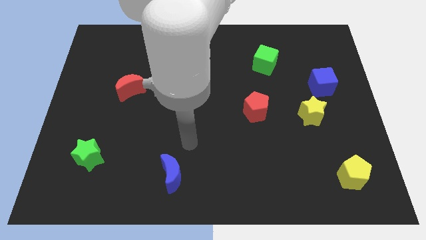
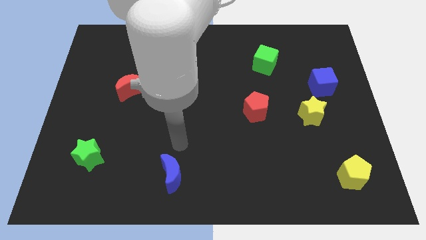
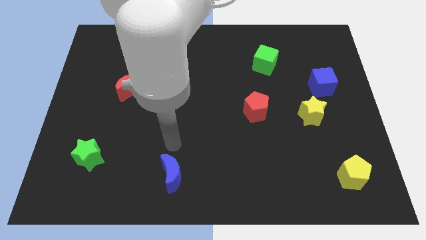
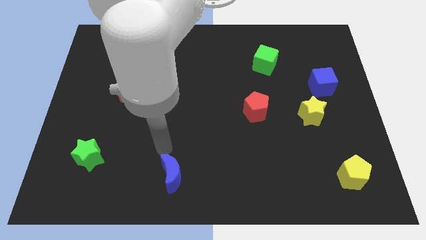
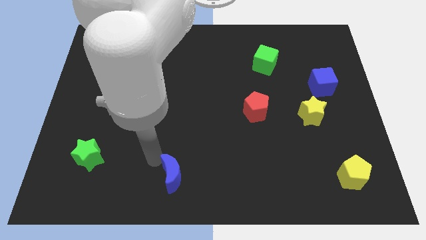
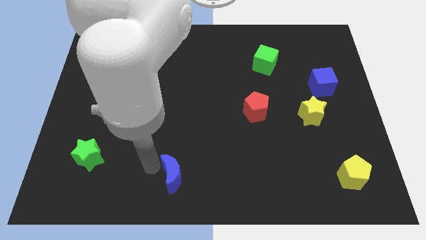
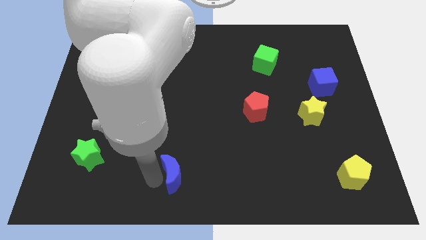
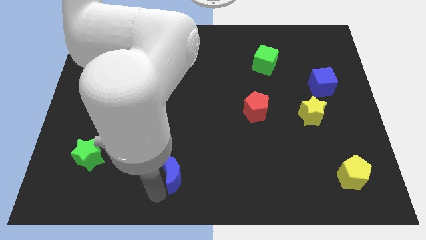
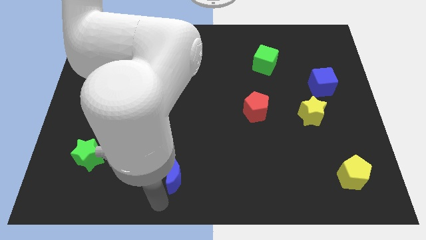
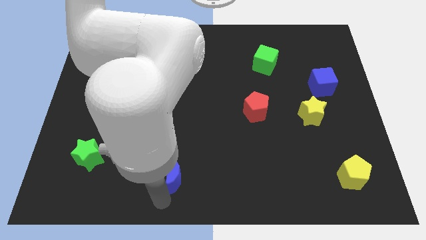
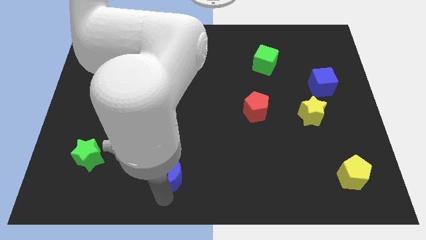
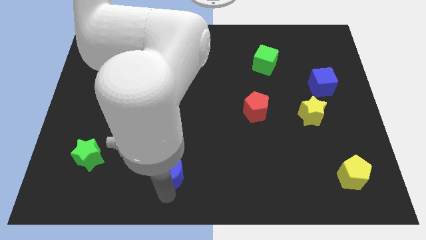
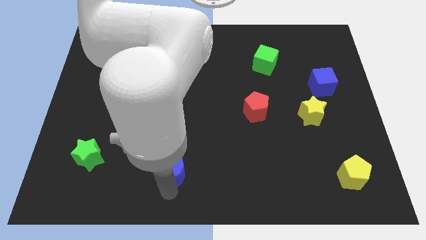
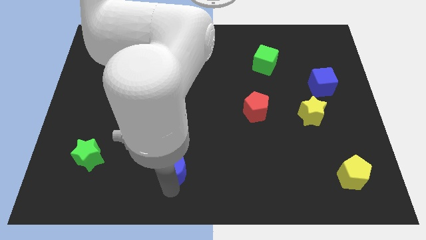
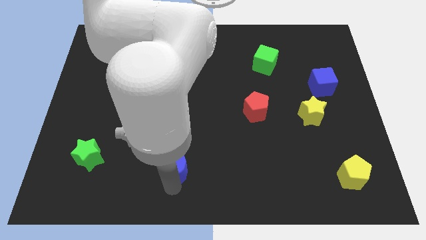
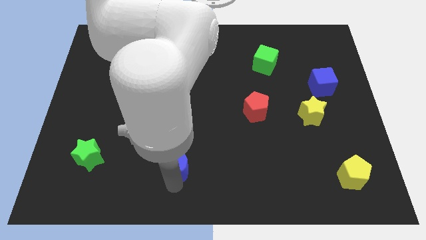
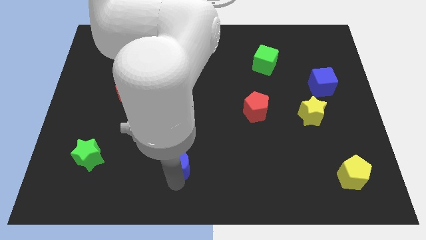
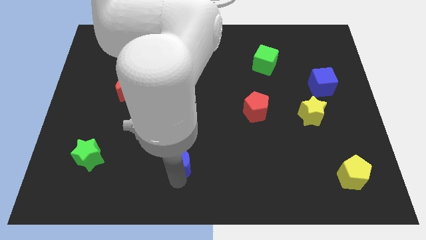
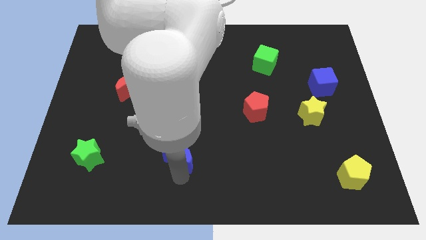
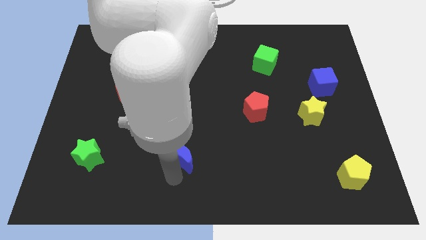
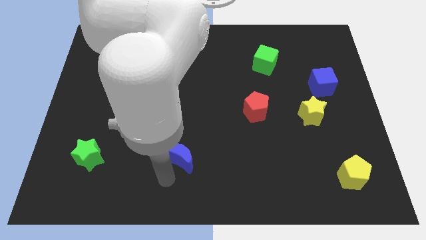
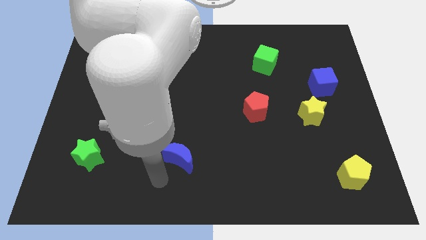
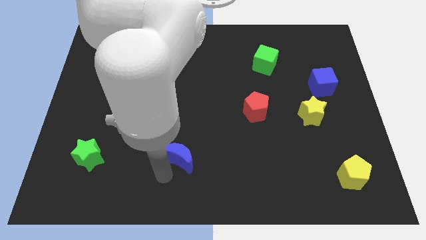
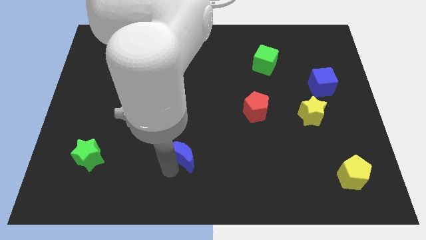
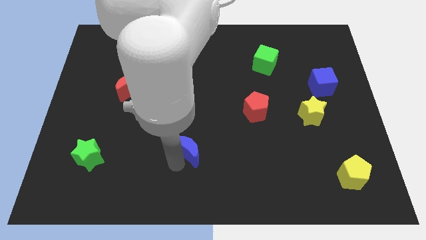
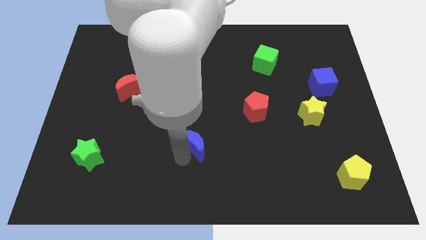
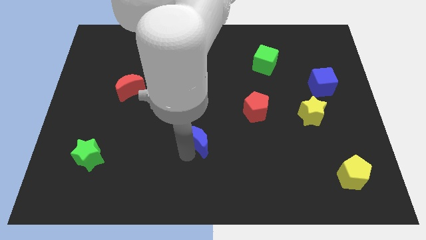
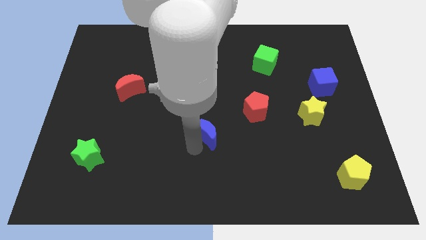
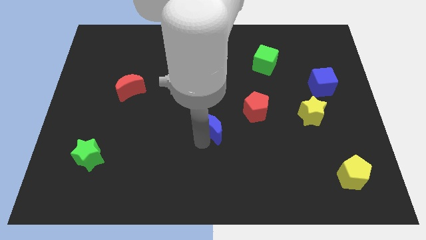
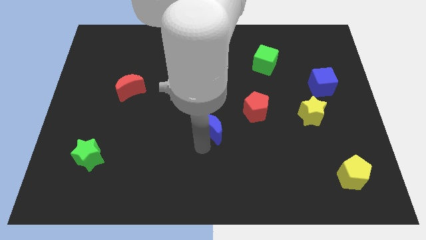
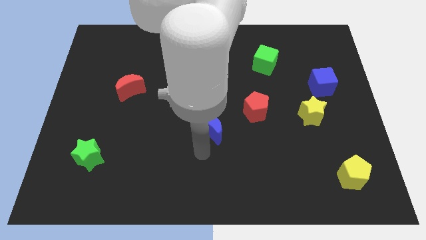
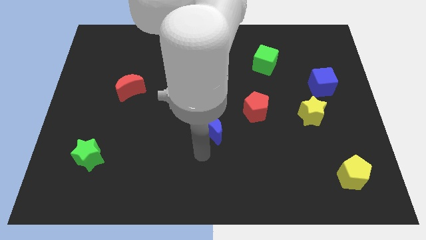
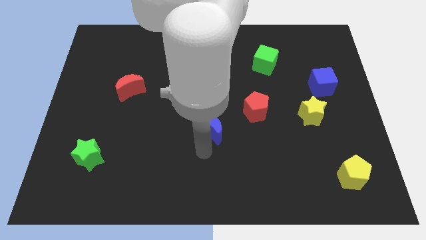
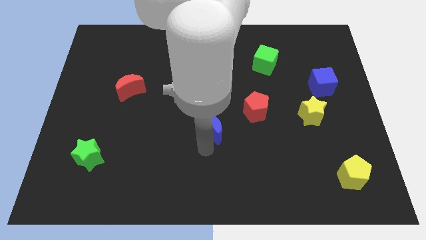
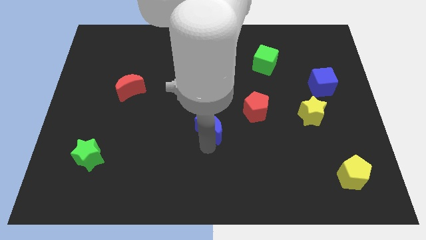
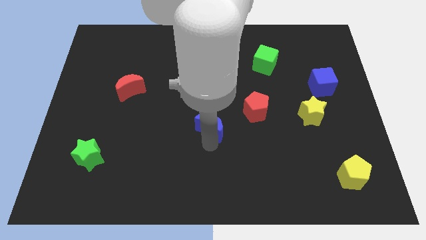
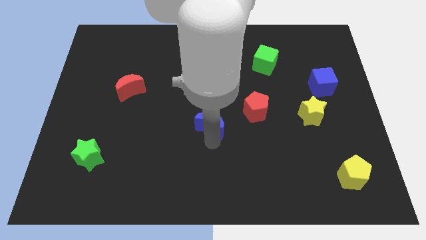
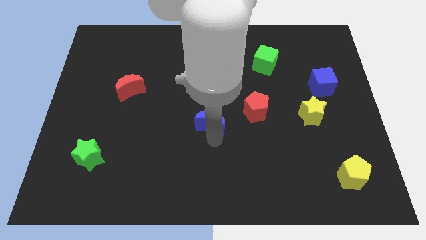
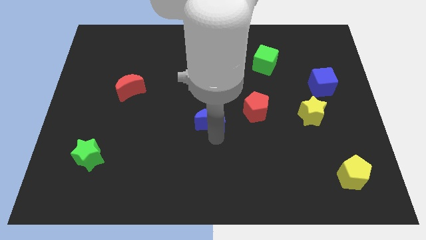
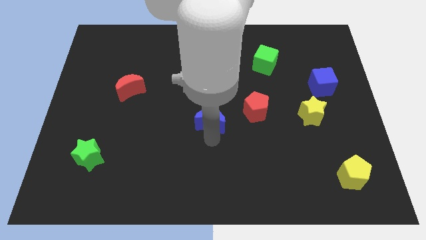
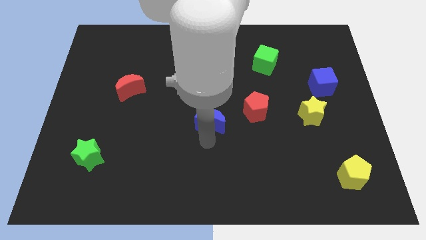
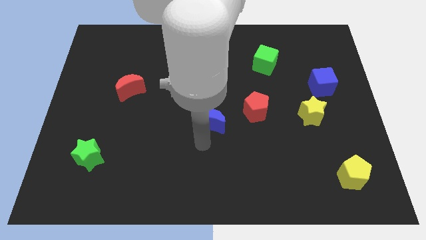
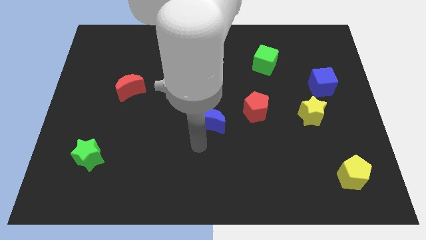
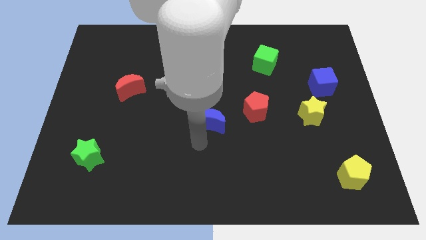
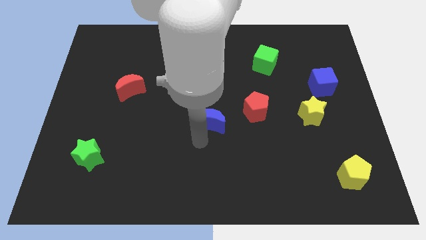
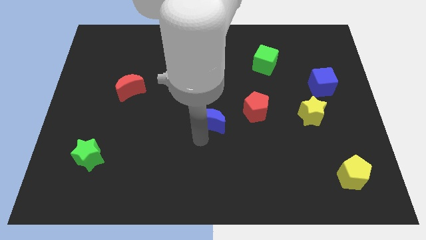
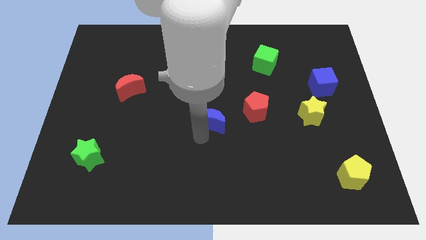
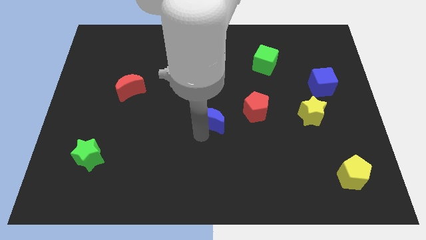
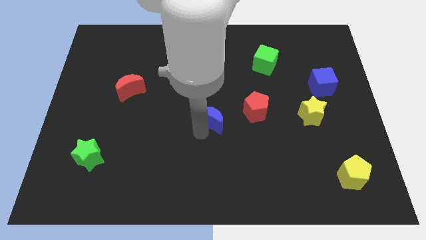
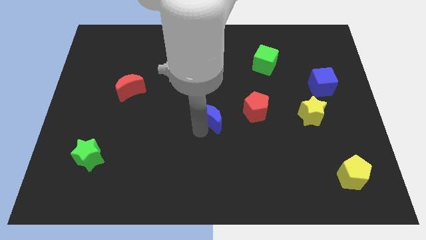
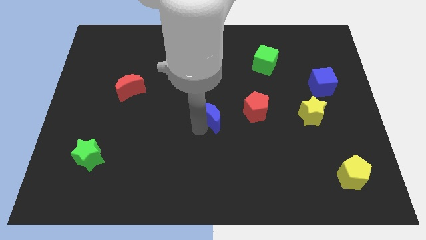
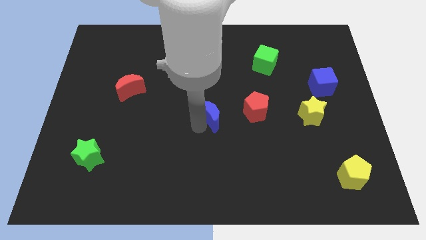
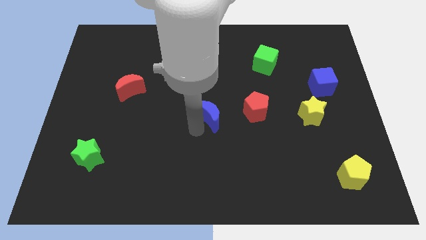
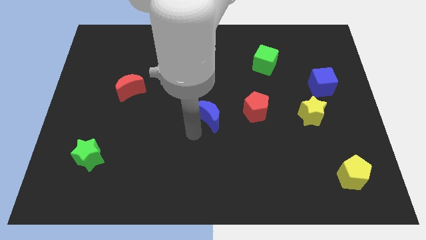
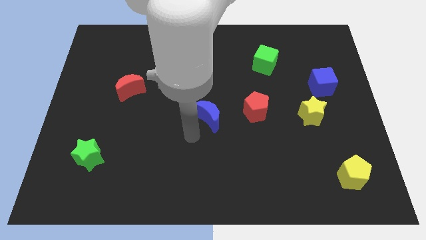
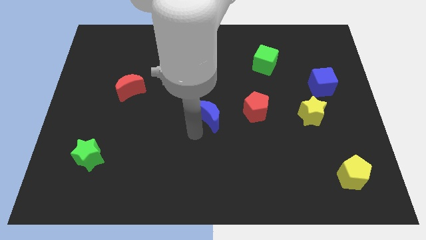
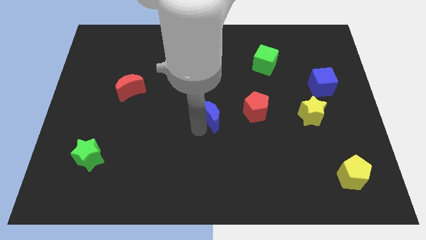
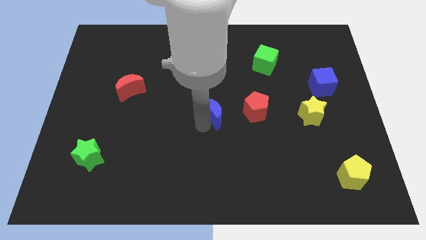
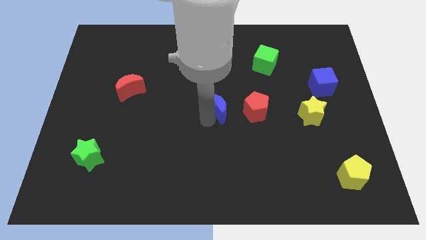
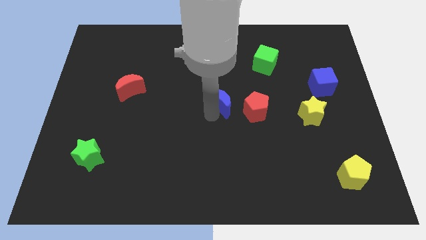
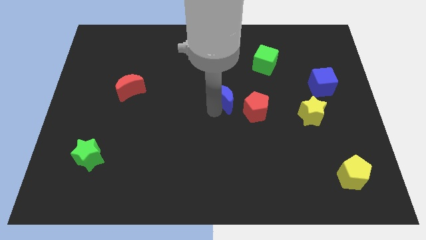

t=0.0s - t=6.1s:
slide the blue moon up and then to the right

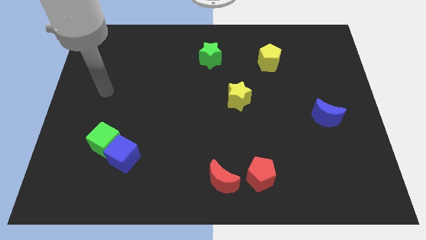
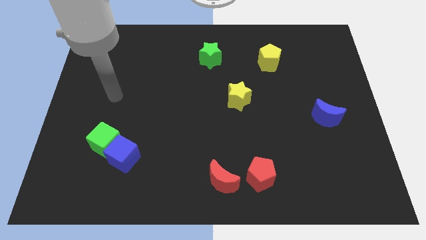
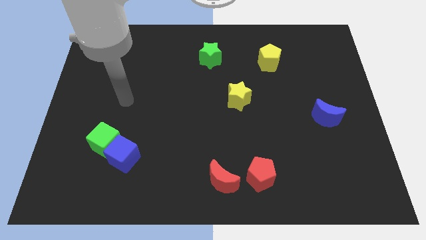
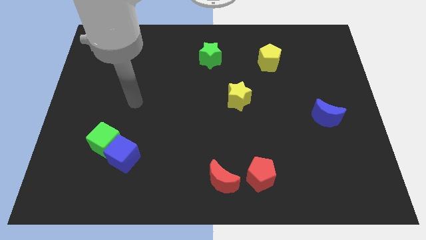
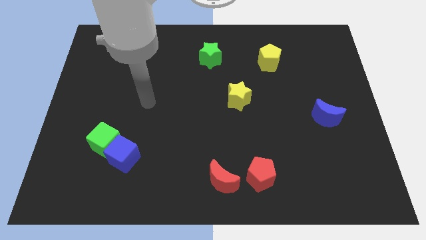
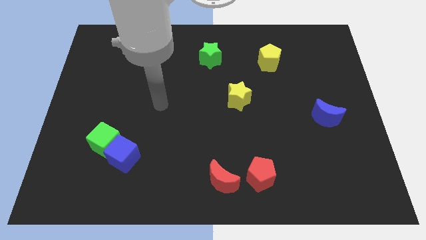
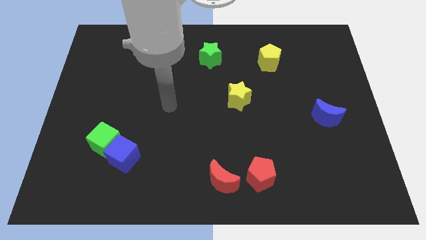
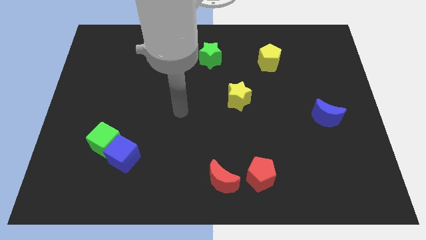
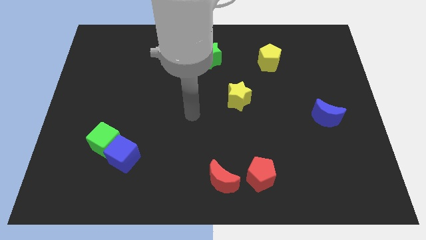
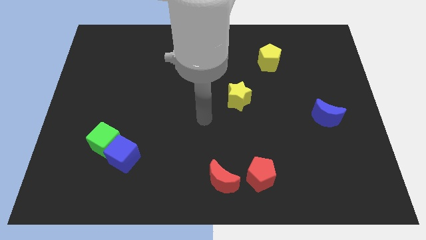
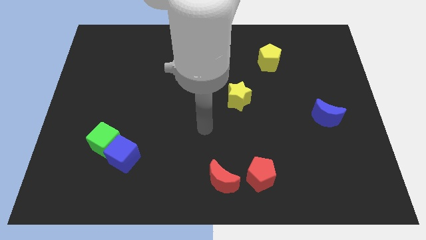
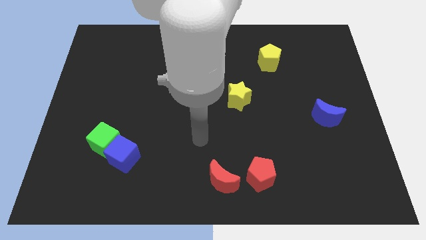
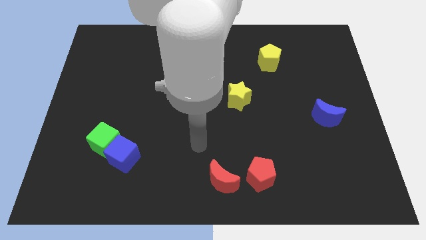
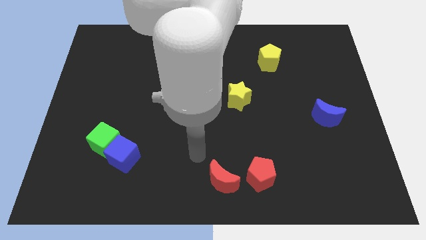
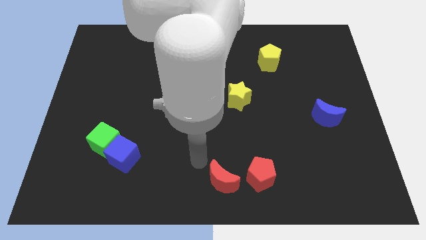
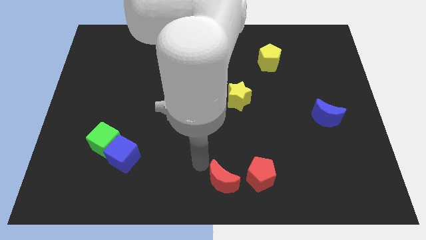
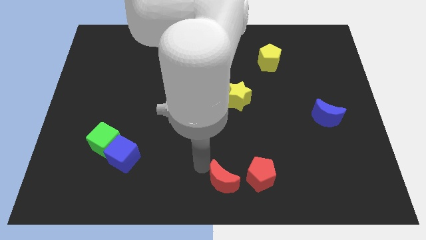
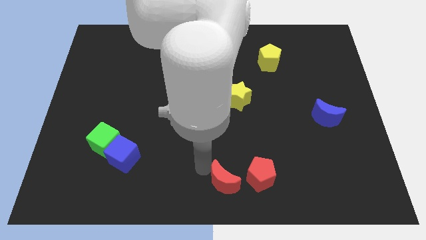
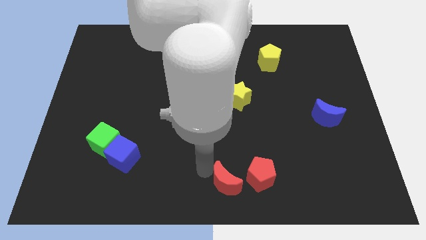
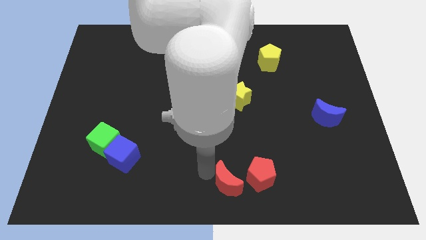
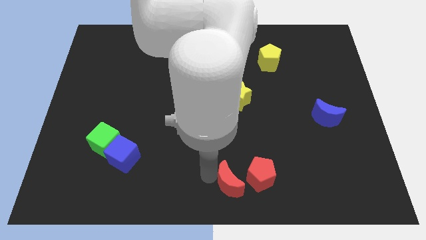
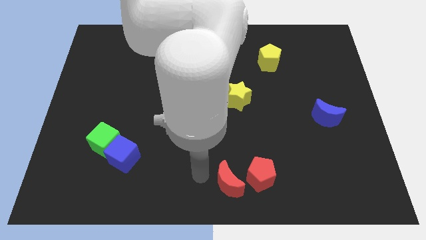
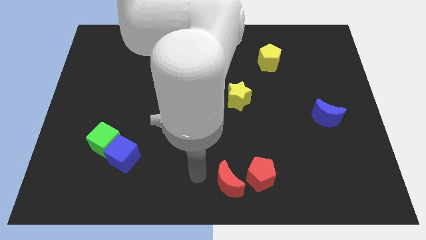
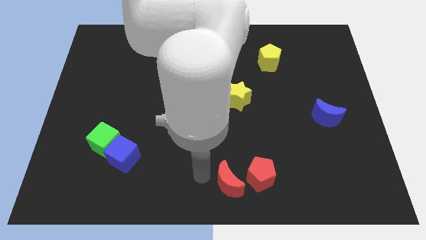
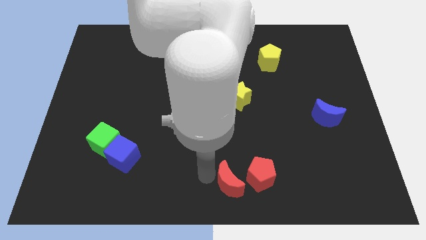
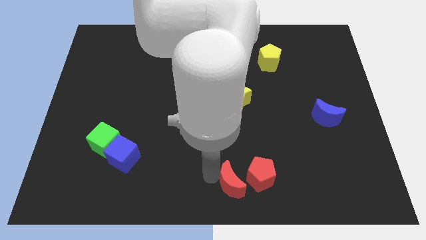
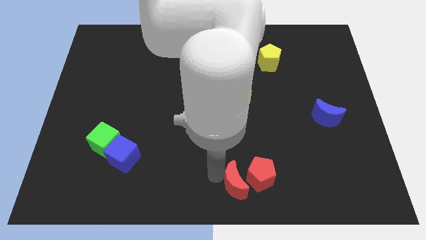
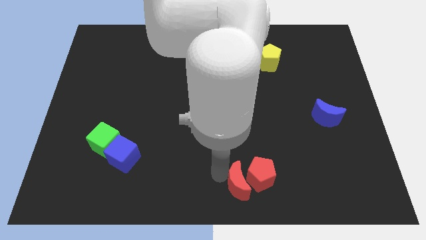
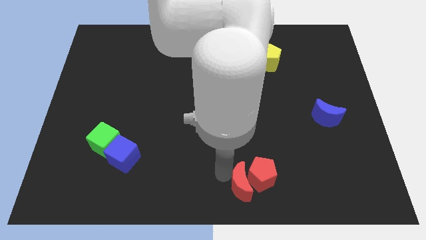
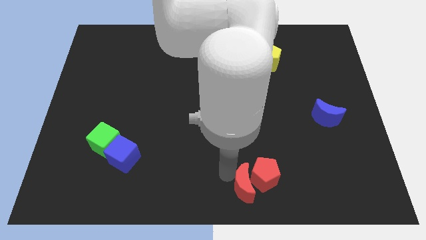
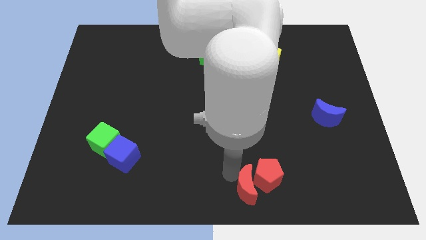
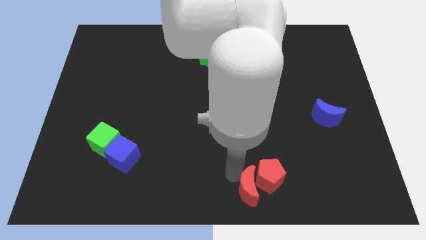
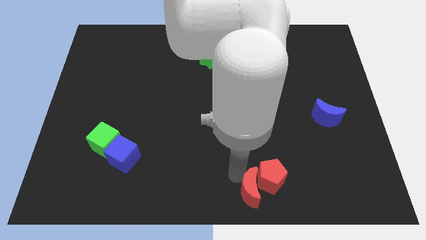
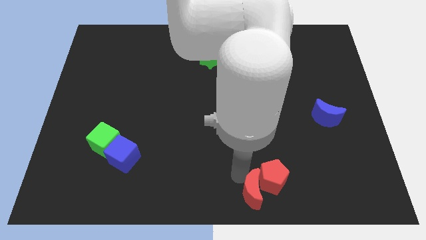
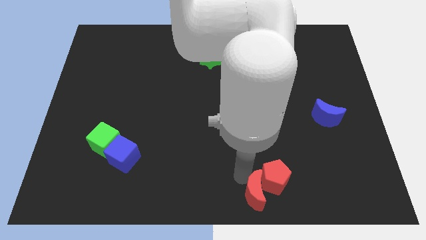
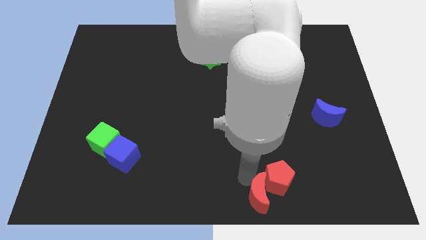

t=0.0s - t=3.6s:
slightly push the red moon right
